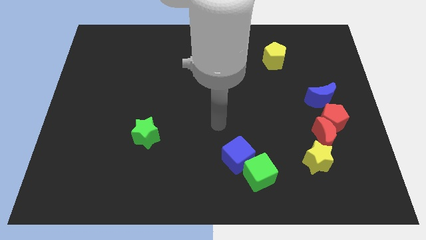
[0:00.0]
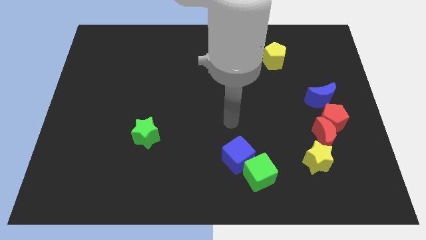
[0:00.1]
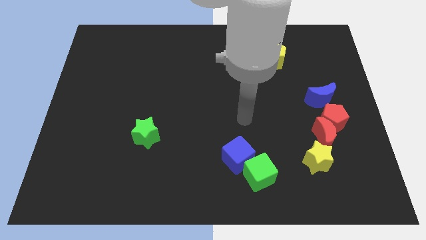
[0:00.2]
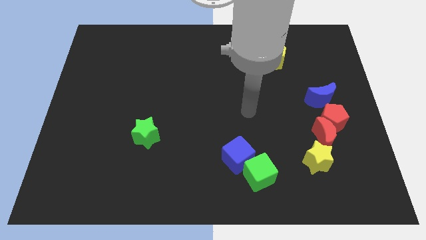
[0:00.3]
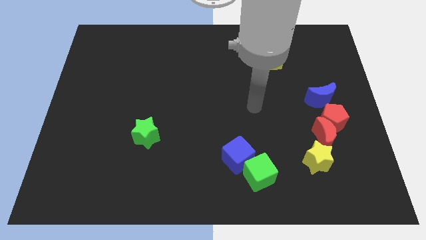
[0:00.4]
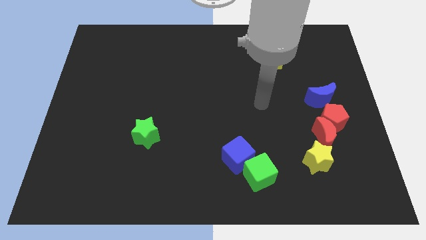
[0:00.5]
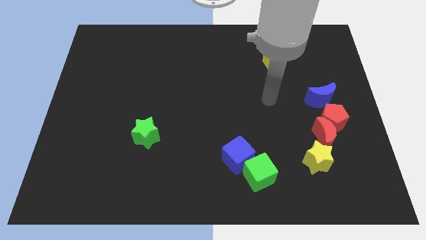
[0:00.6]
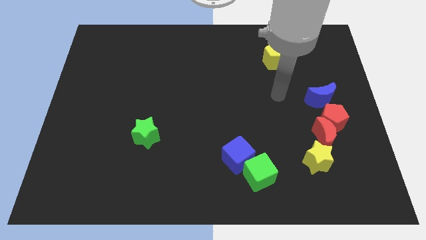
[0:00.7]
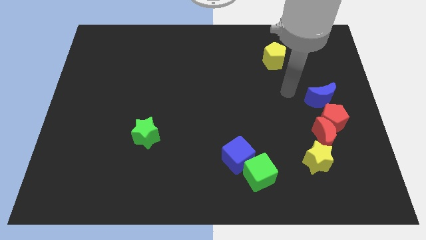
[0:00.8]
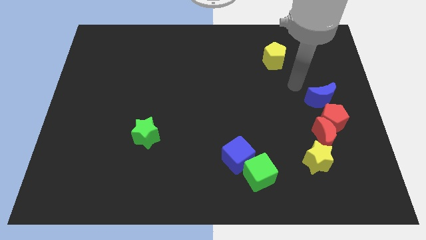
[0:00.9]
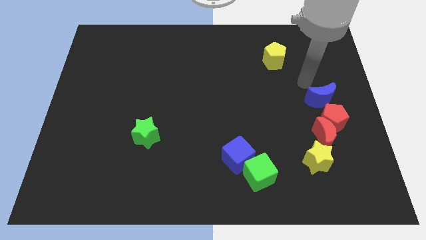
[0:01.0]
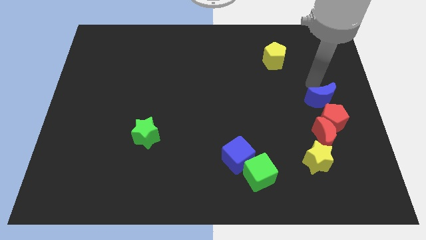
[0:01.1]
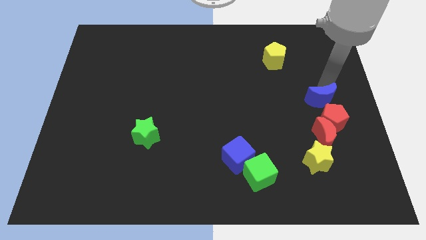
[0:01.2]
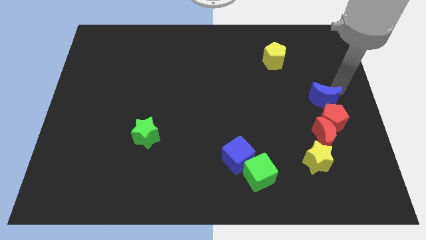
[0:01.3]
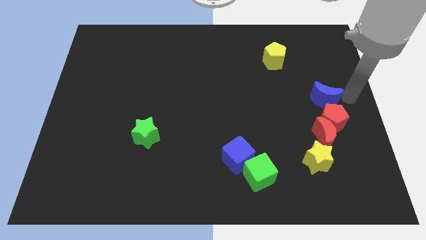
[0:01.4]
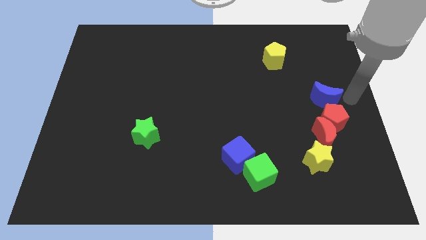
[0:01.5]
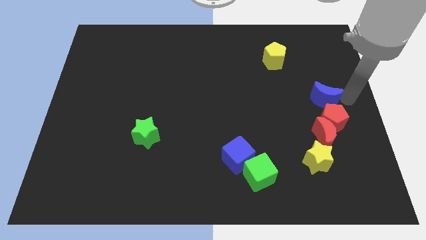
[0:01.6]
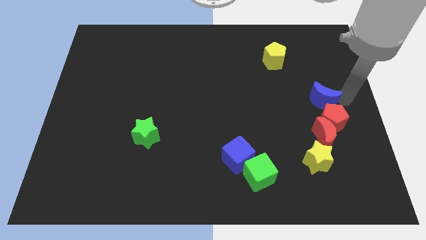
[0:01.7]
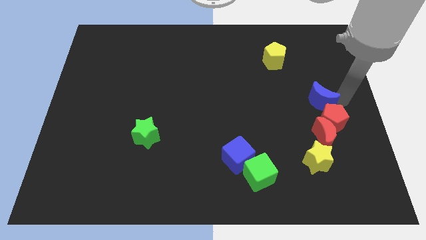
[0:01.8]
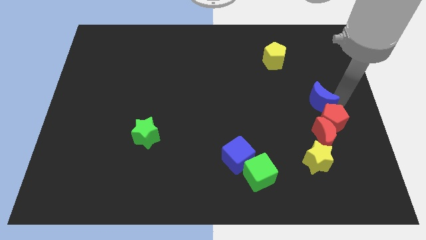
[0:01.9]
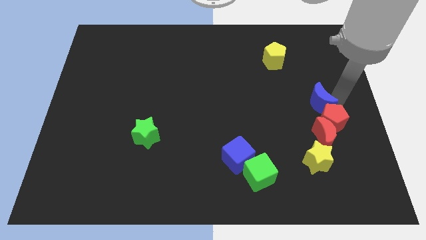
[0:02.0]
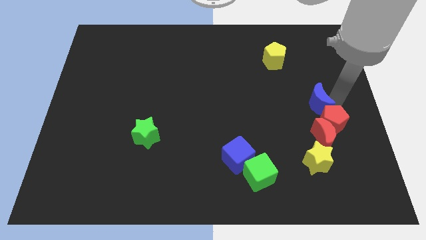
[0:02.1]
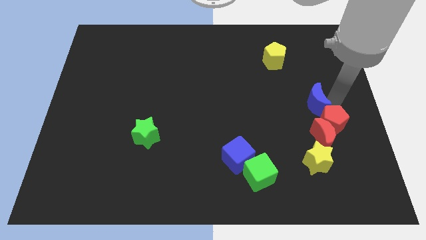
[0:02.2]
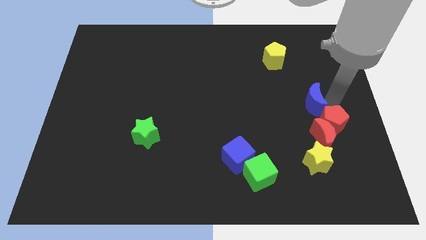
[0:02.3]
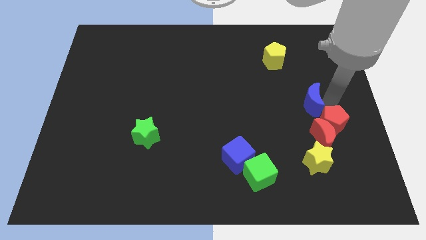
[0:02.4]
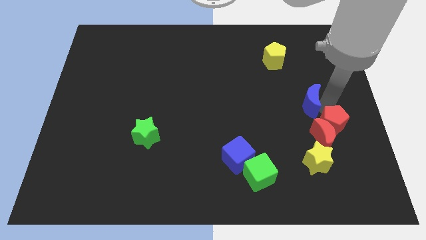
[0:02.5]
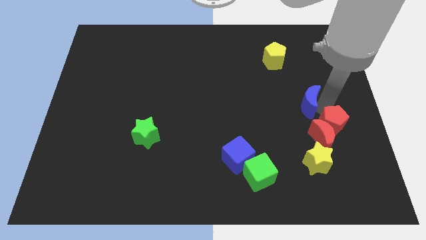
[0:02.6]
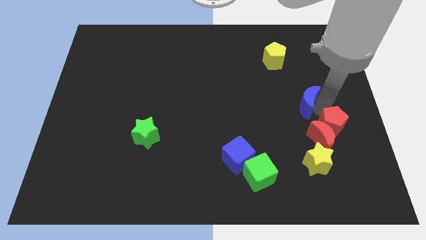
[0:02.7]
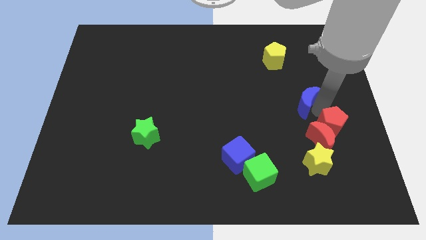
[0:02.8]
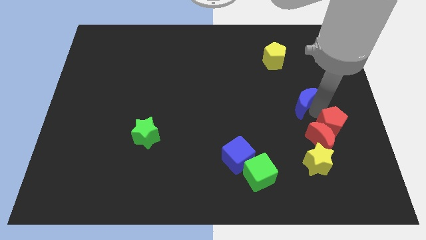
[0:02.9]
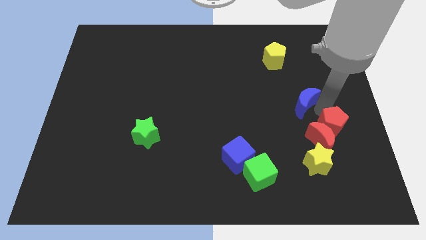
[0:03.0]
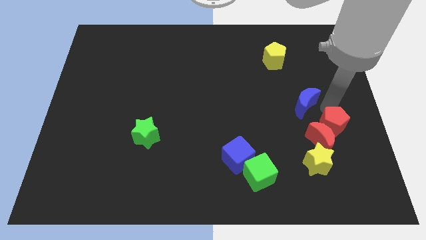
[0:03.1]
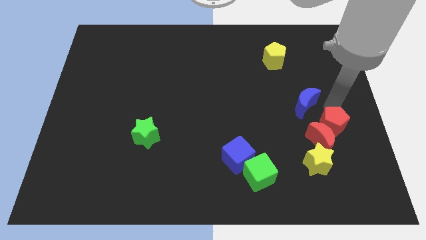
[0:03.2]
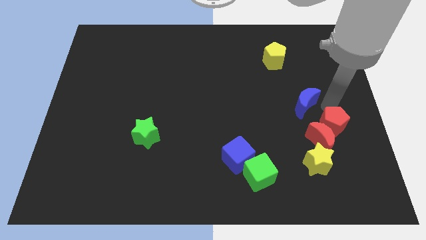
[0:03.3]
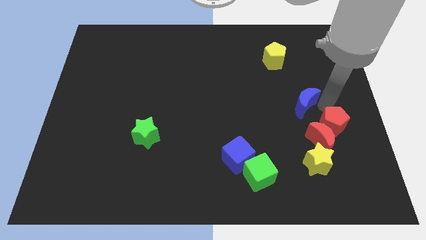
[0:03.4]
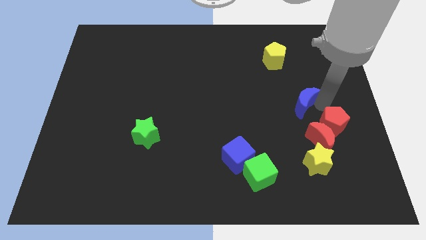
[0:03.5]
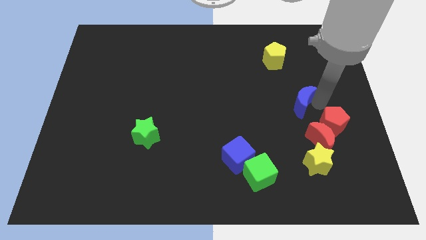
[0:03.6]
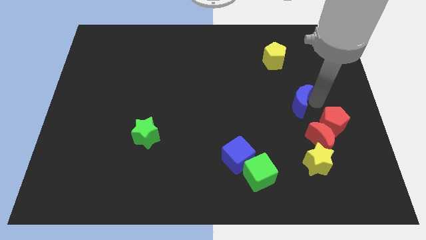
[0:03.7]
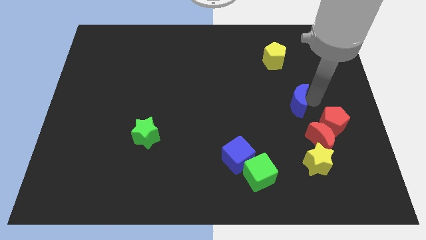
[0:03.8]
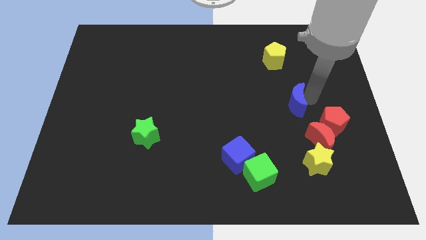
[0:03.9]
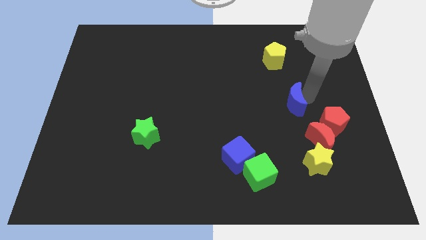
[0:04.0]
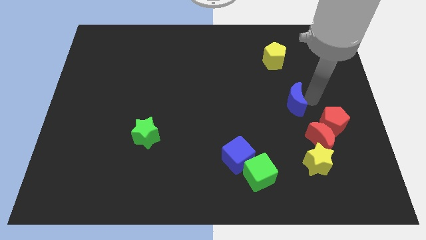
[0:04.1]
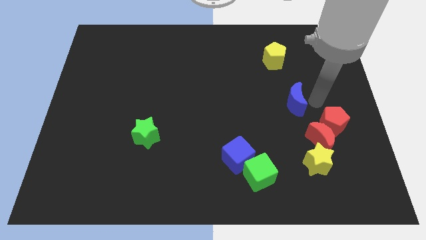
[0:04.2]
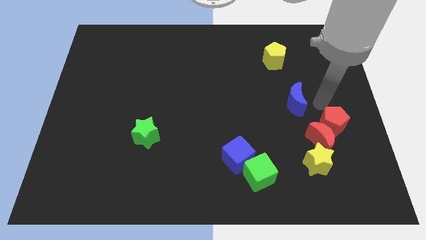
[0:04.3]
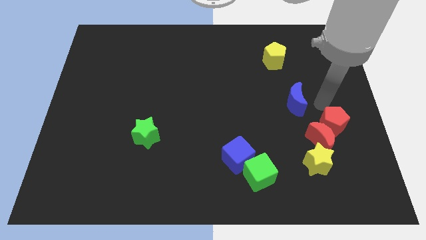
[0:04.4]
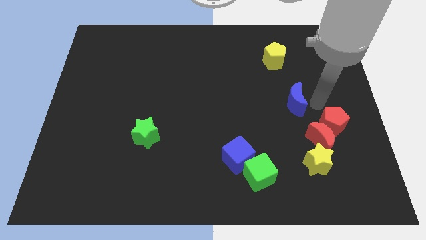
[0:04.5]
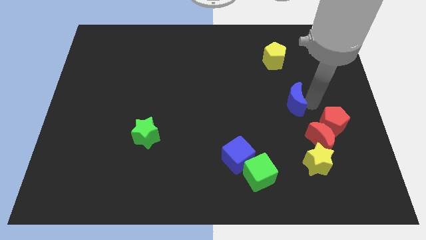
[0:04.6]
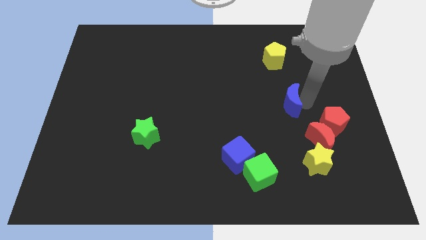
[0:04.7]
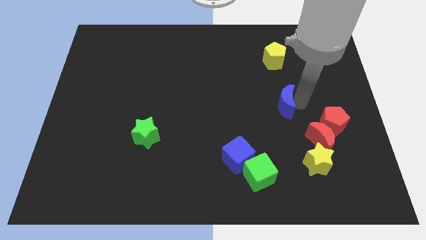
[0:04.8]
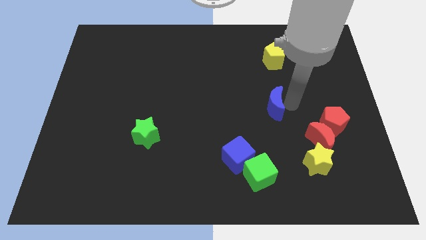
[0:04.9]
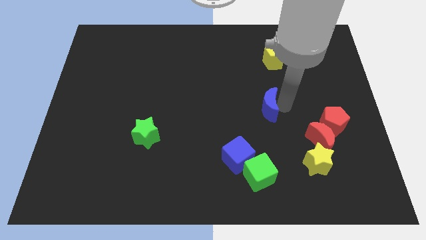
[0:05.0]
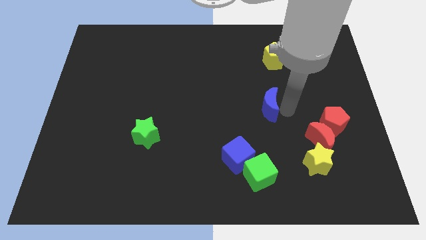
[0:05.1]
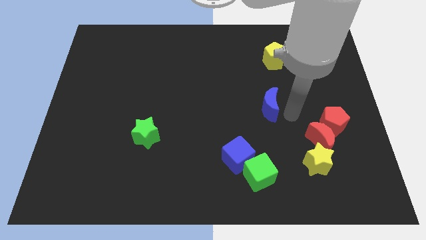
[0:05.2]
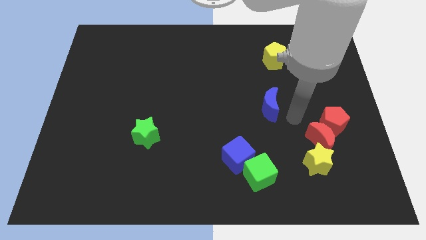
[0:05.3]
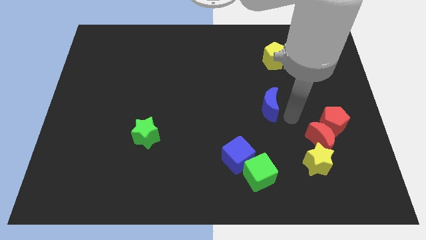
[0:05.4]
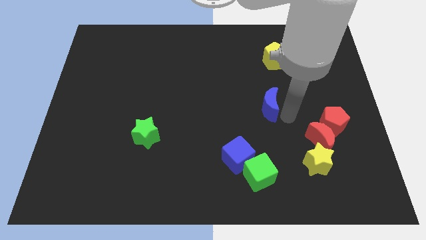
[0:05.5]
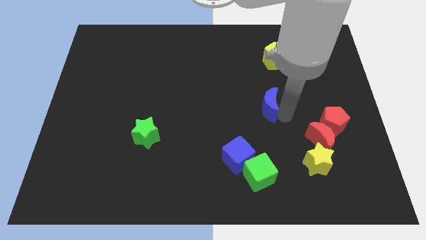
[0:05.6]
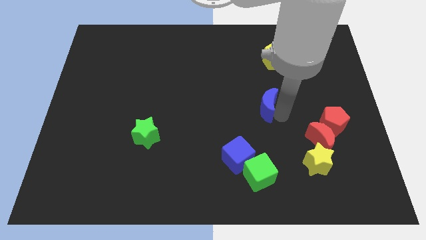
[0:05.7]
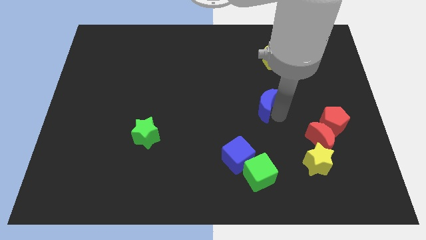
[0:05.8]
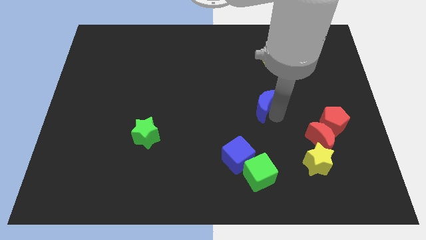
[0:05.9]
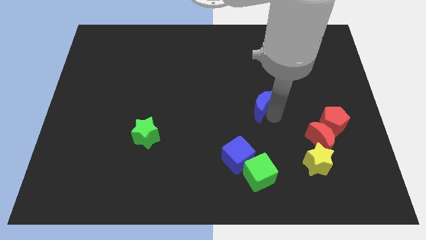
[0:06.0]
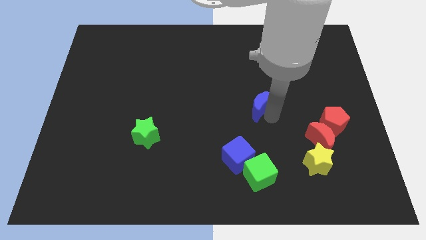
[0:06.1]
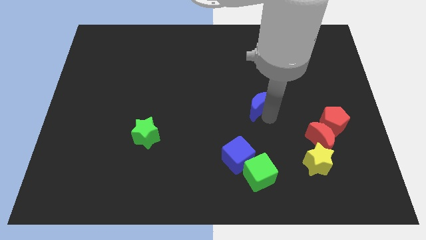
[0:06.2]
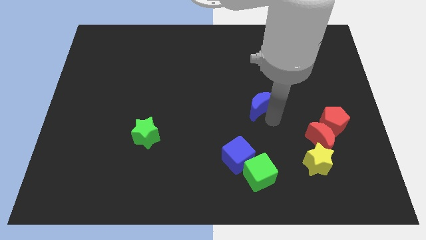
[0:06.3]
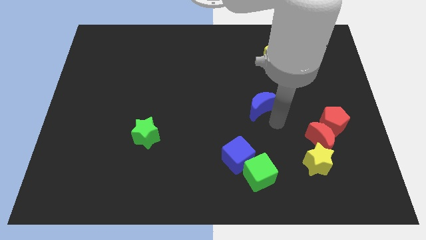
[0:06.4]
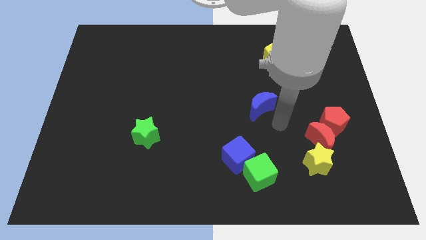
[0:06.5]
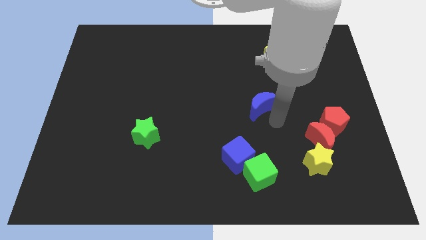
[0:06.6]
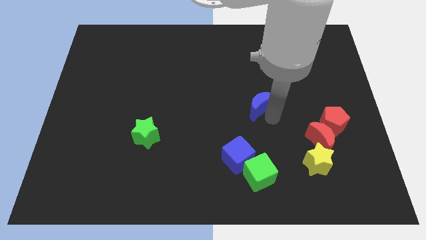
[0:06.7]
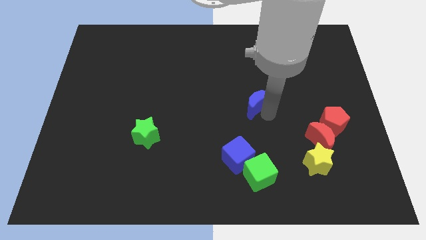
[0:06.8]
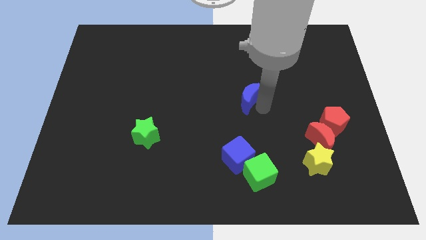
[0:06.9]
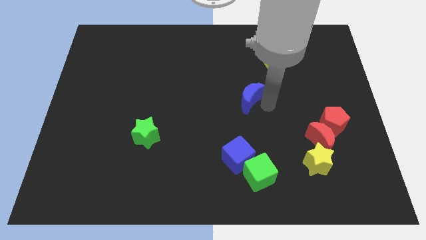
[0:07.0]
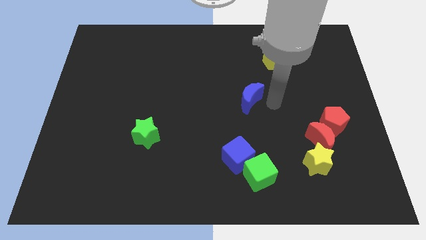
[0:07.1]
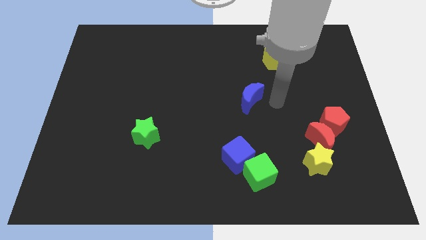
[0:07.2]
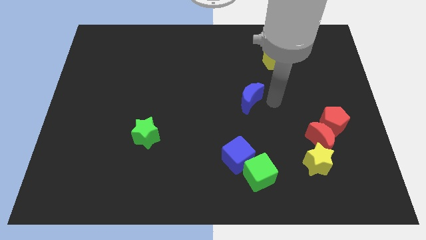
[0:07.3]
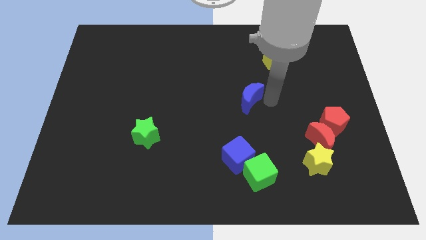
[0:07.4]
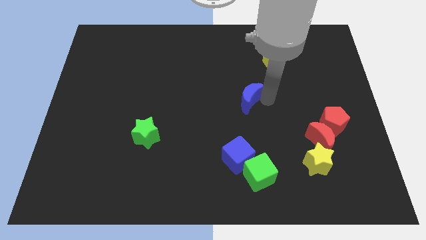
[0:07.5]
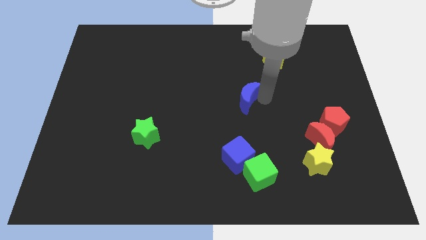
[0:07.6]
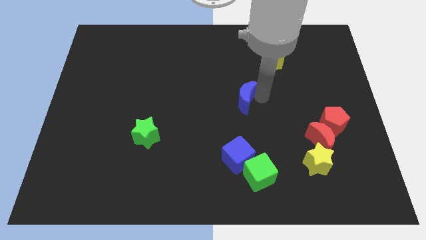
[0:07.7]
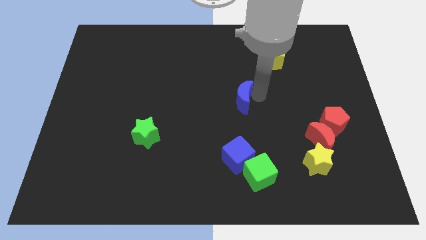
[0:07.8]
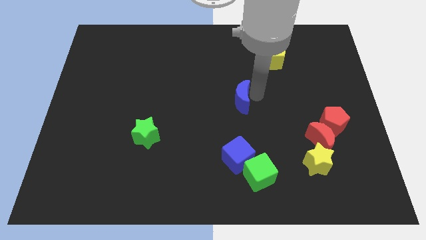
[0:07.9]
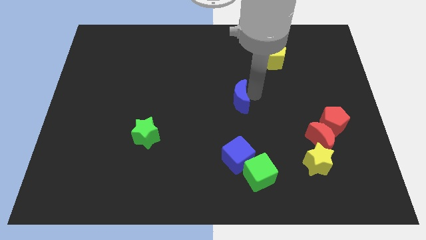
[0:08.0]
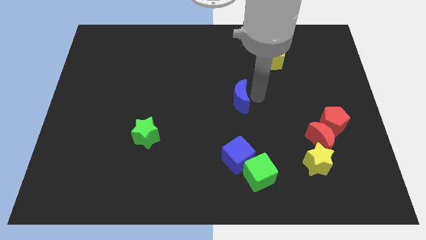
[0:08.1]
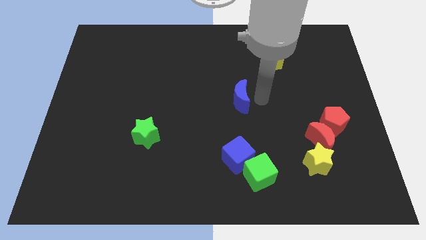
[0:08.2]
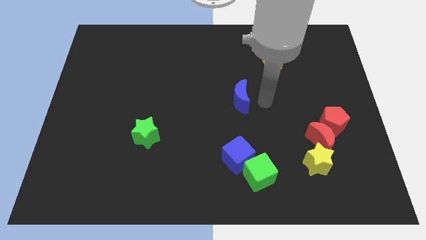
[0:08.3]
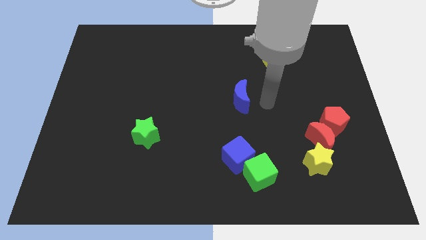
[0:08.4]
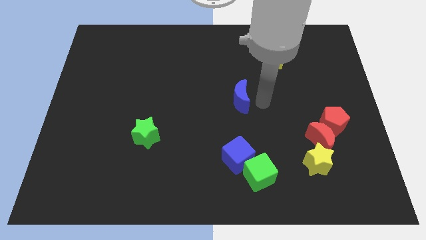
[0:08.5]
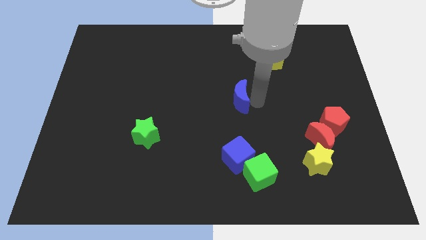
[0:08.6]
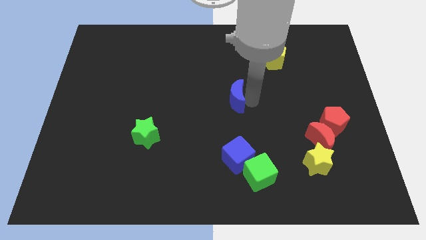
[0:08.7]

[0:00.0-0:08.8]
move the blue moon left
